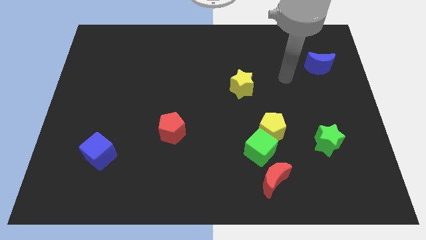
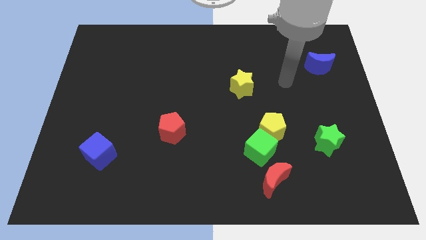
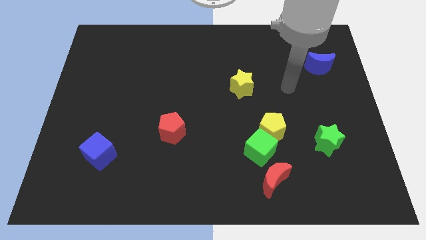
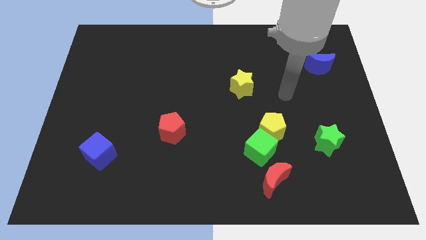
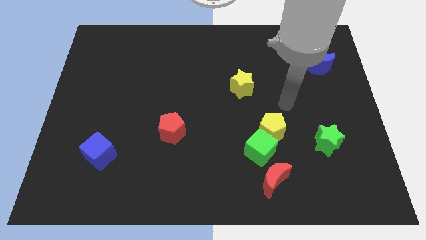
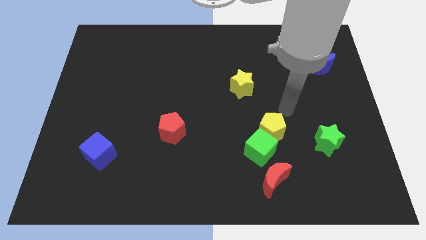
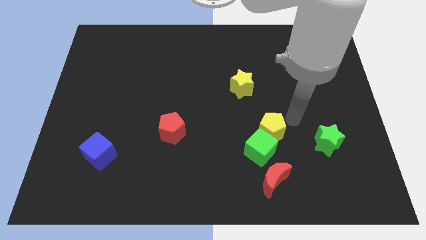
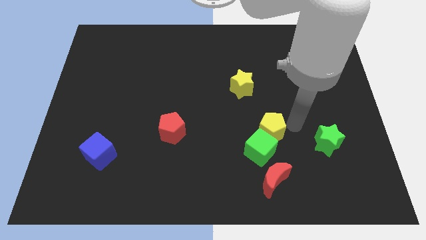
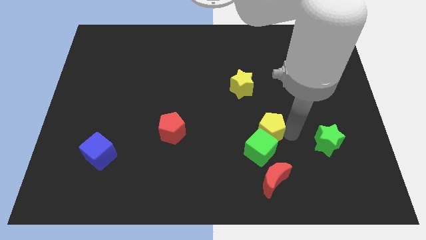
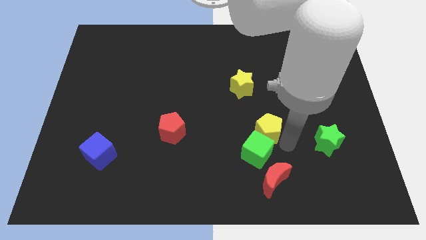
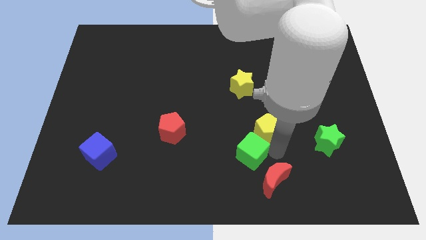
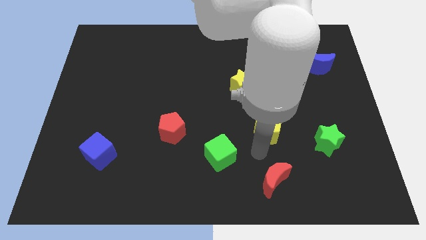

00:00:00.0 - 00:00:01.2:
separate the yellow pentagon from the green cube

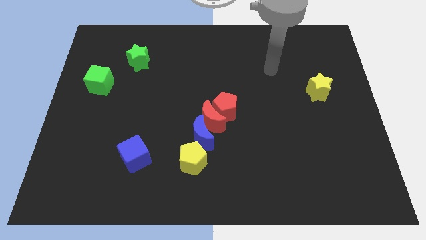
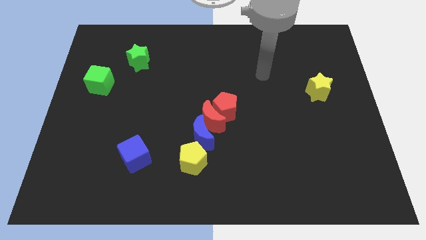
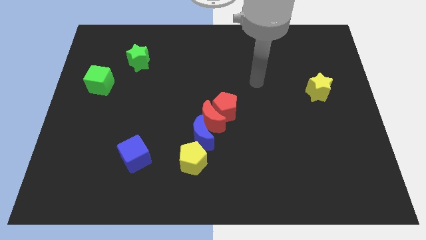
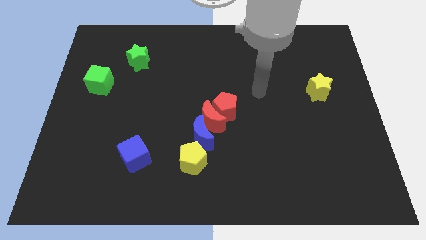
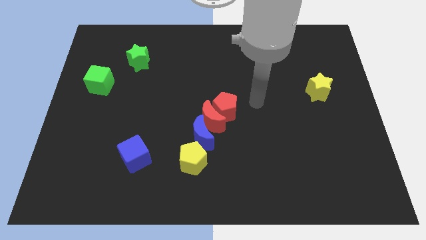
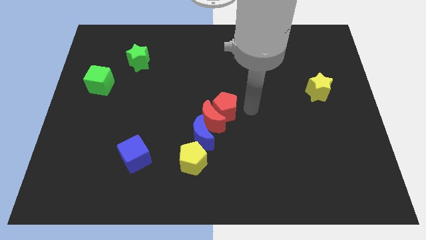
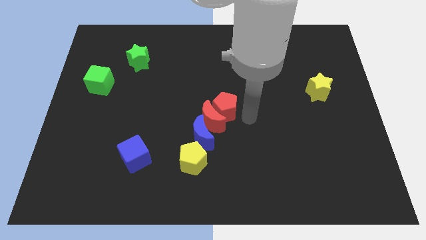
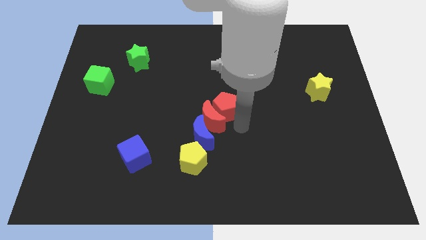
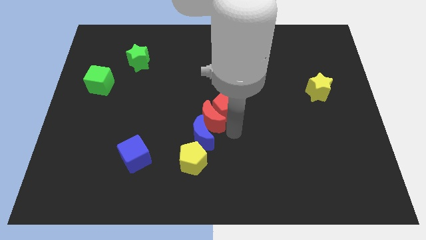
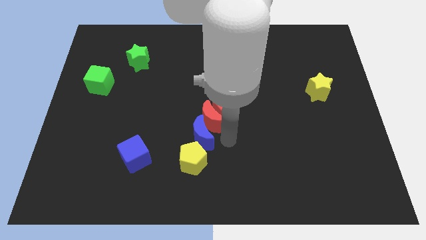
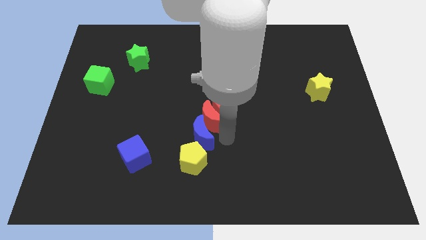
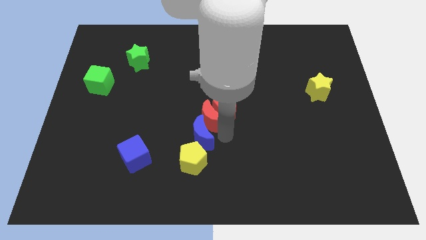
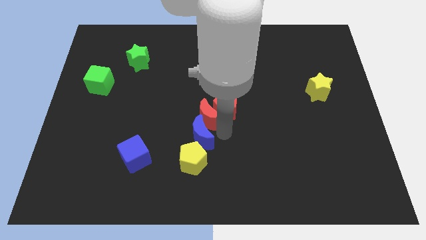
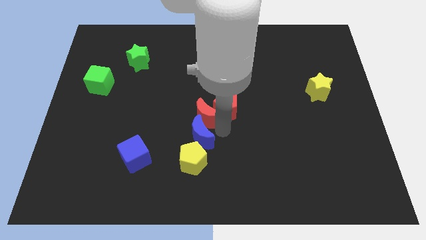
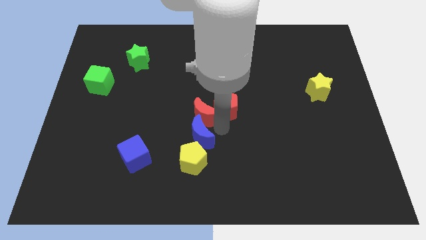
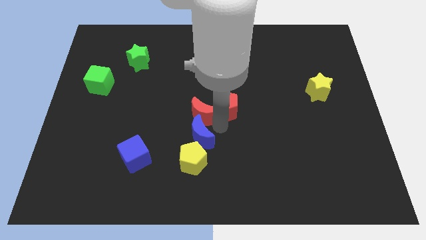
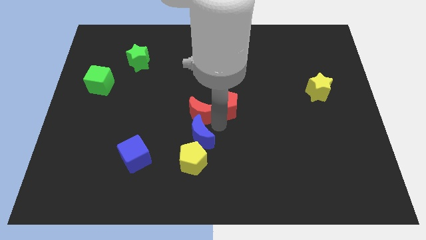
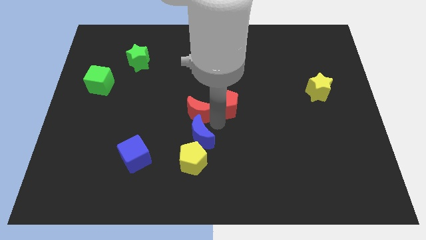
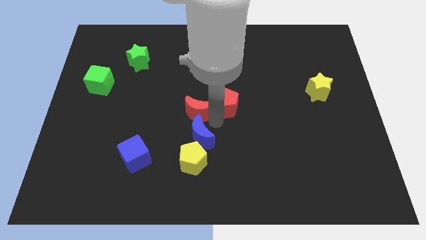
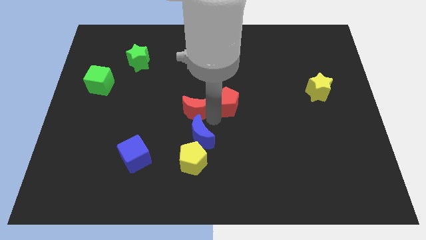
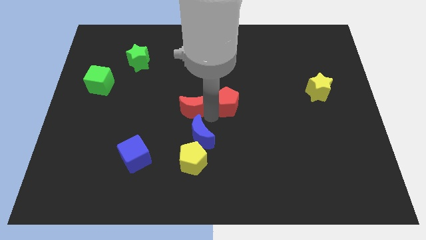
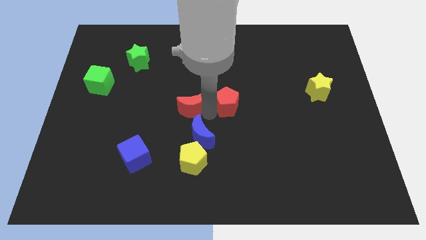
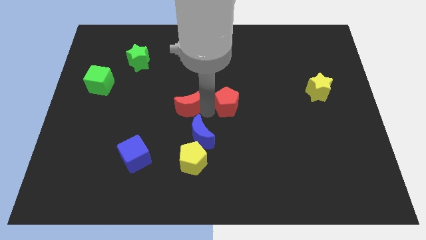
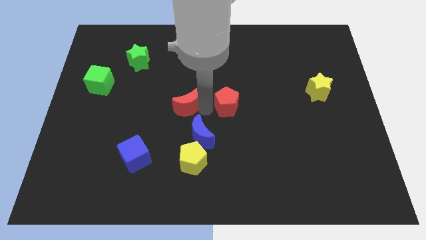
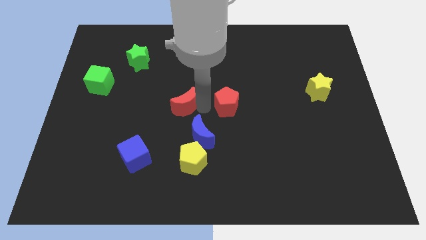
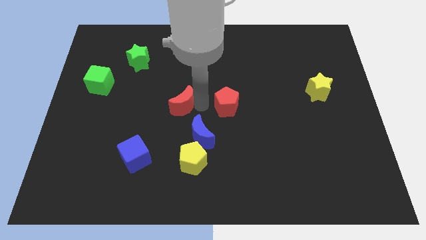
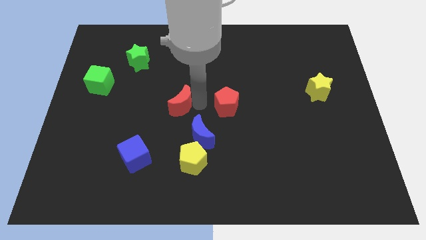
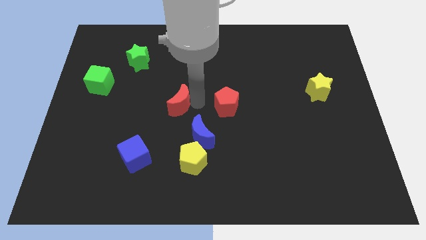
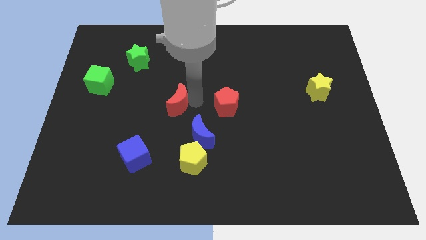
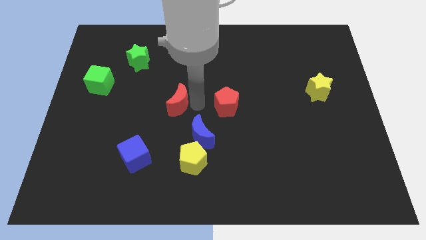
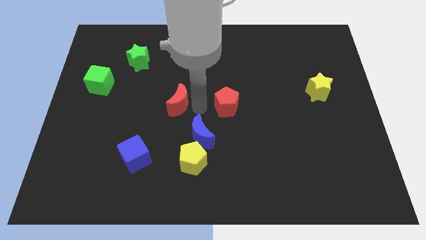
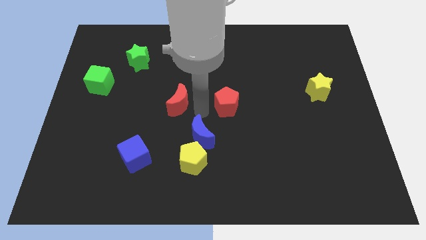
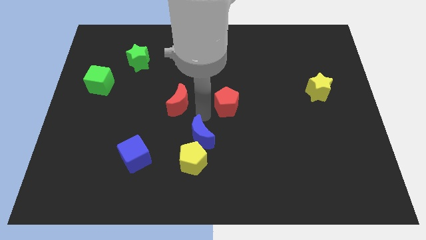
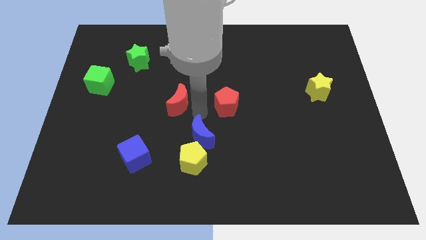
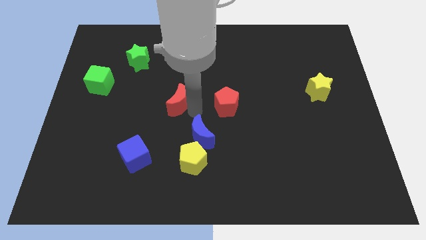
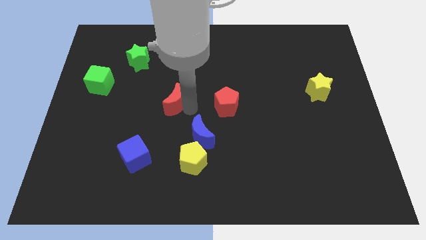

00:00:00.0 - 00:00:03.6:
move the red moon away from the red pentagon and blue moon

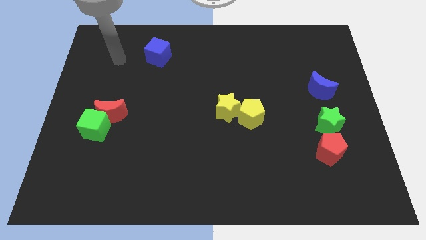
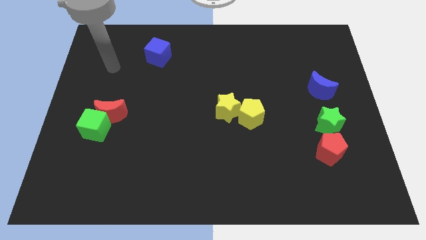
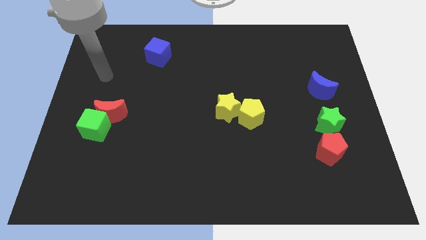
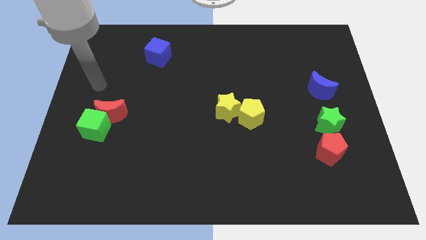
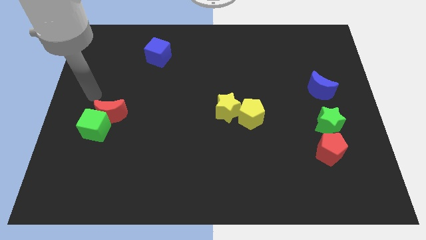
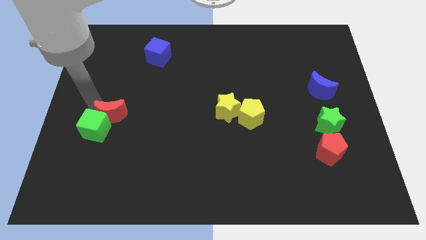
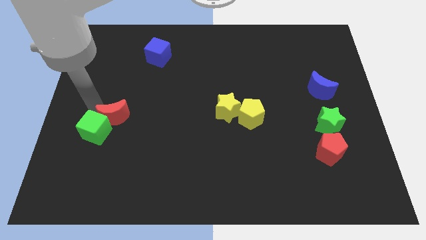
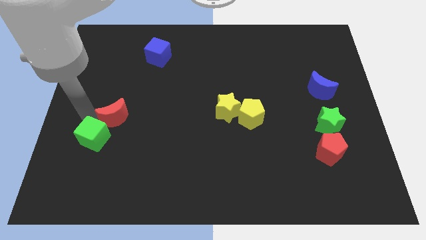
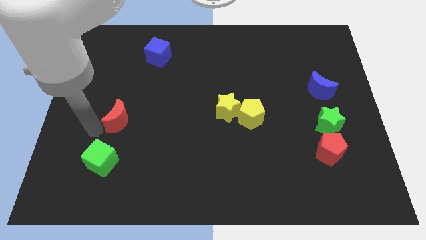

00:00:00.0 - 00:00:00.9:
pull the red moon apart from the green cube

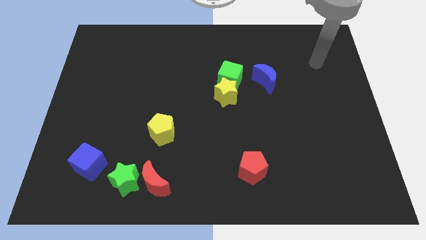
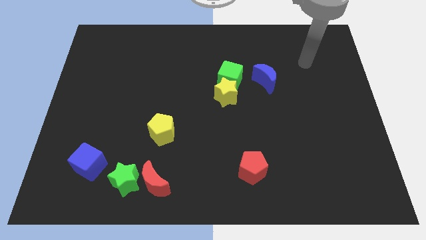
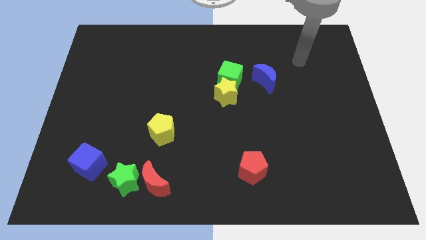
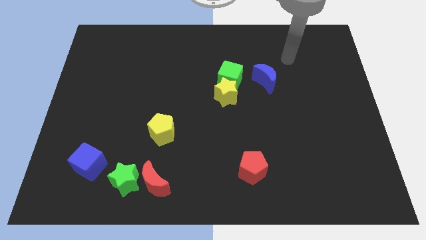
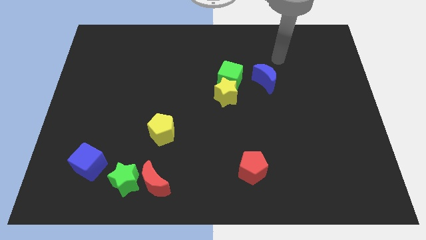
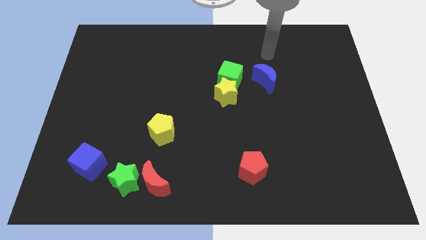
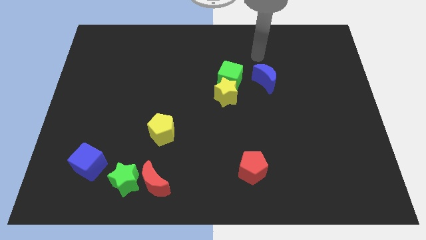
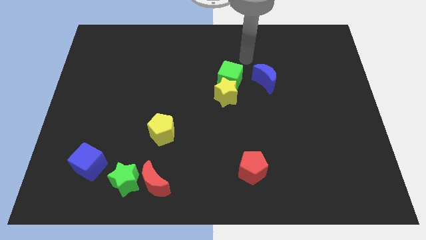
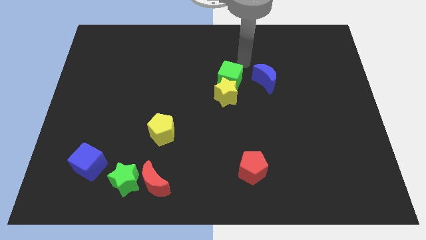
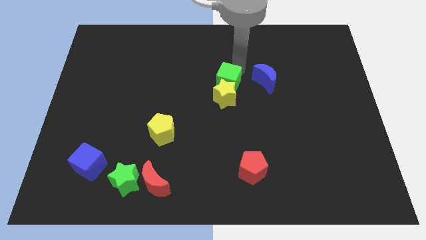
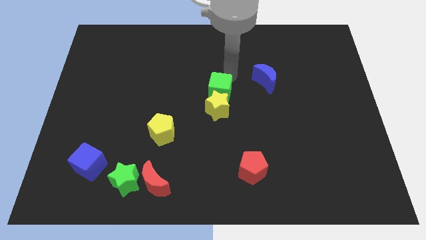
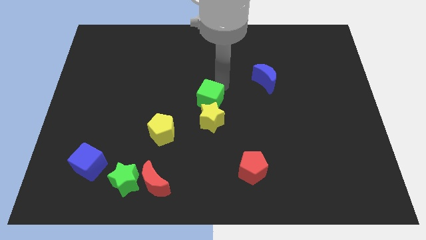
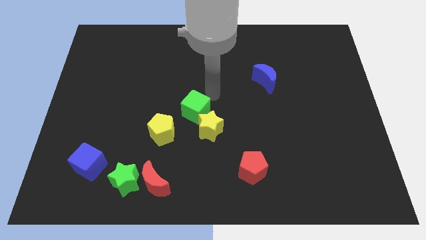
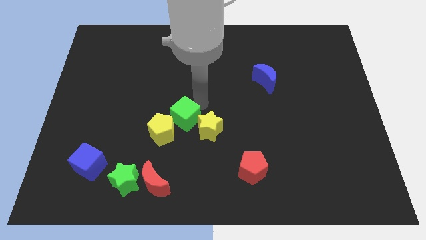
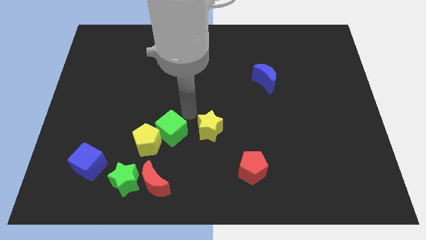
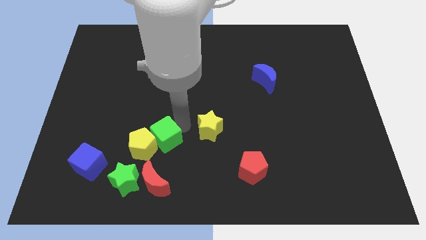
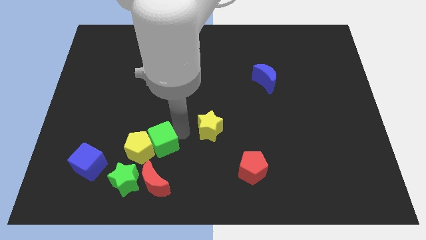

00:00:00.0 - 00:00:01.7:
pull the yellow star apart from the green cube

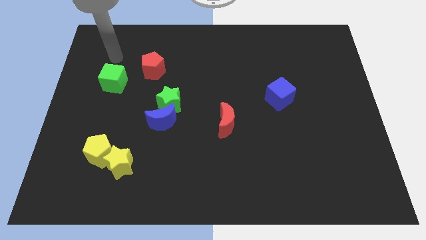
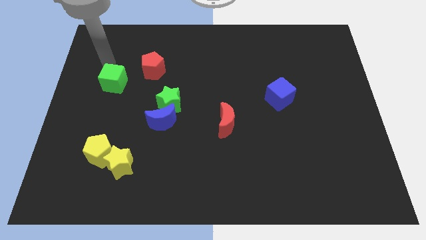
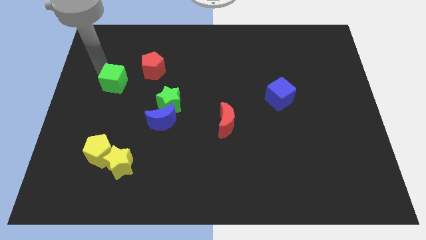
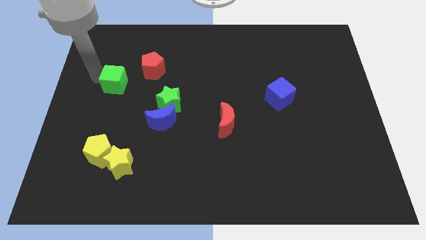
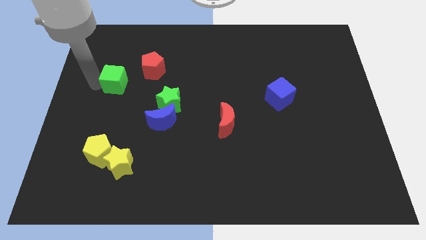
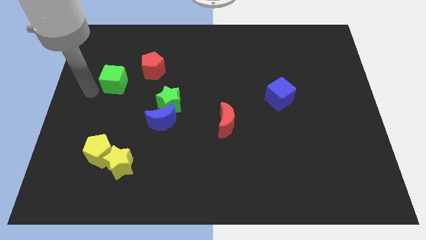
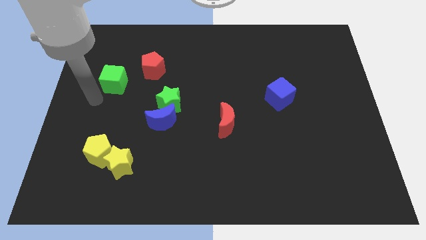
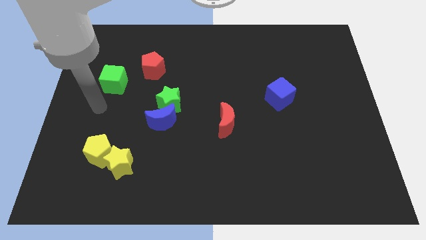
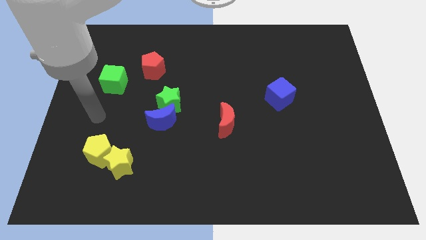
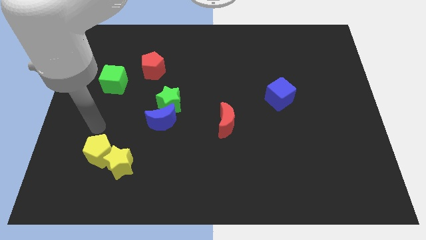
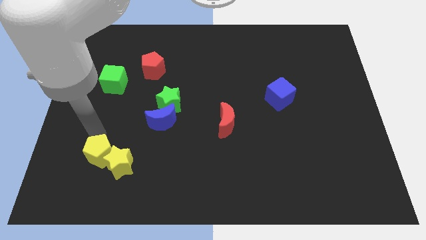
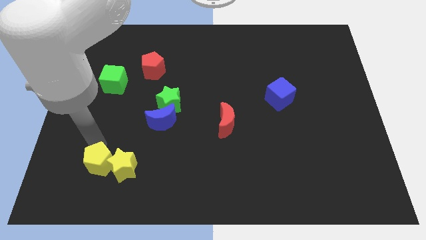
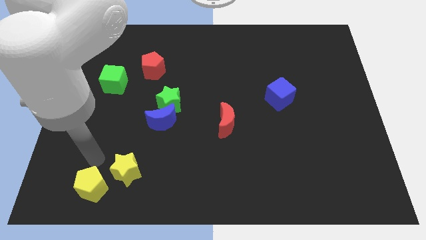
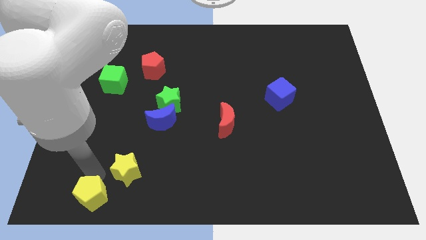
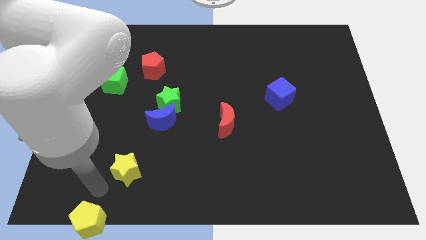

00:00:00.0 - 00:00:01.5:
pull the yellow star apart from the yellow pentagon

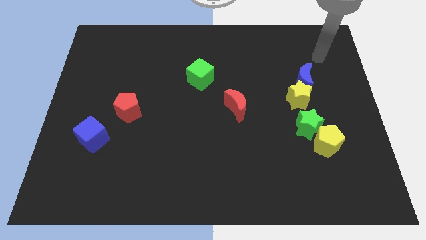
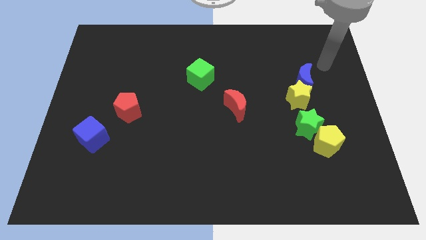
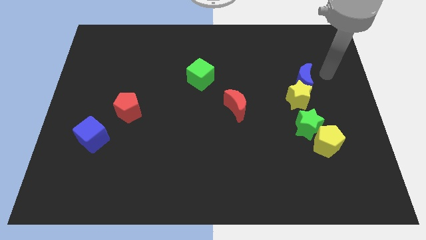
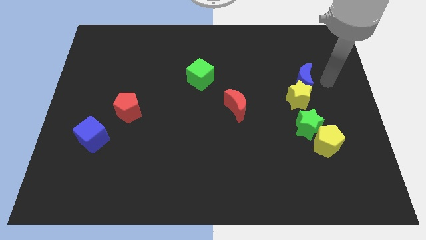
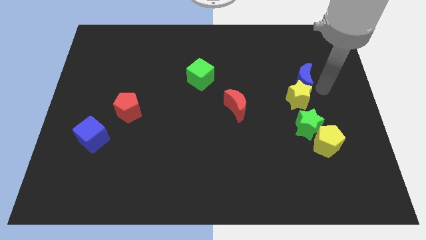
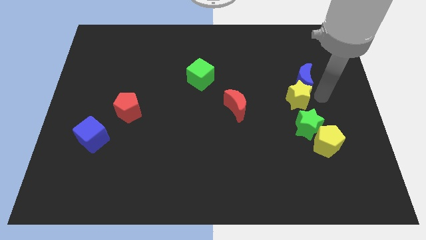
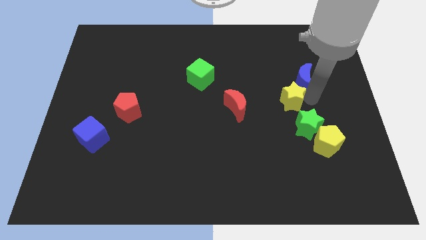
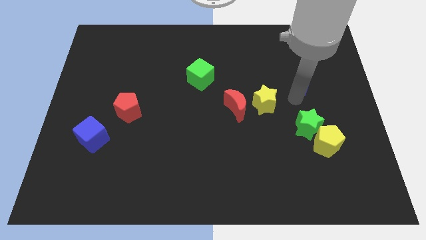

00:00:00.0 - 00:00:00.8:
move the blue moon away from the yellow star
